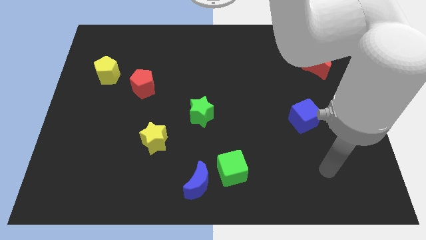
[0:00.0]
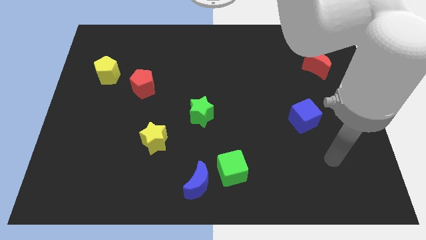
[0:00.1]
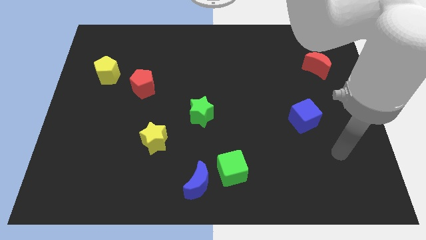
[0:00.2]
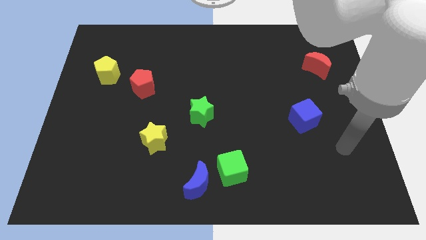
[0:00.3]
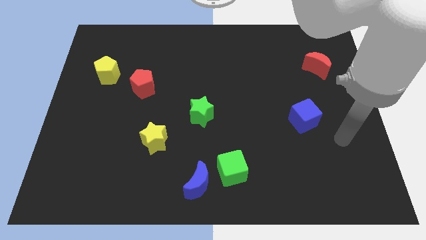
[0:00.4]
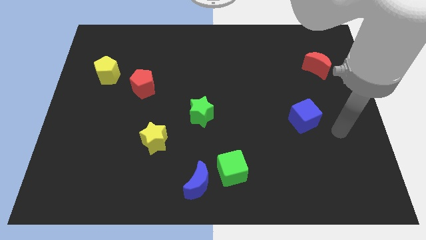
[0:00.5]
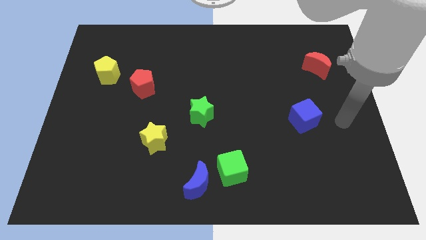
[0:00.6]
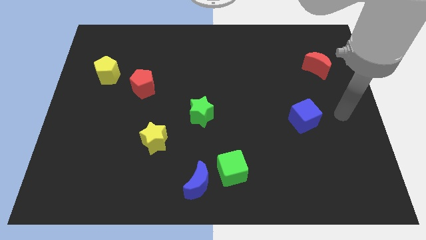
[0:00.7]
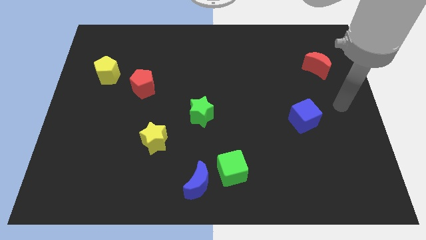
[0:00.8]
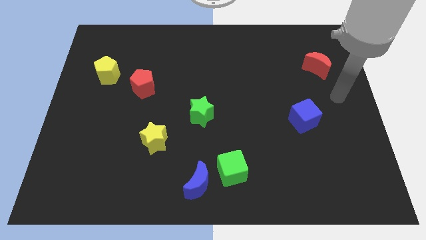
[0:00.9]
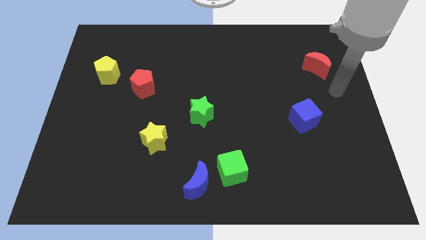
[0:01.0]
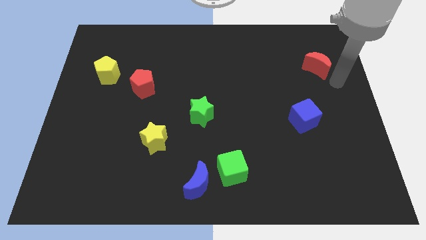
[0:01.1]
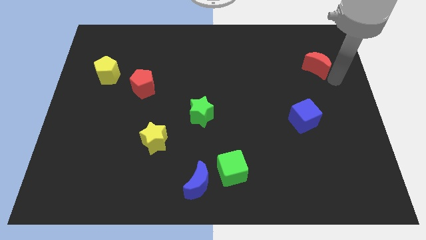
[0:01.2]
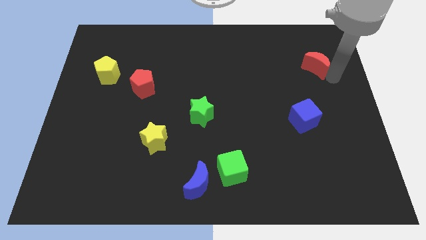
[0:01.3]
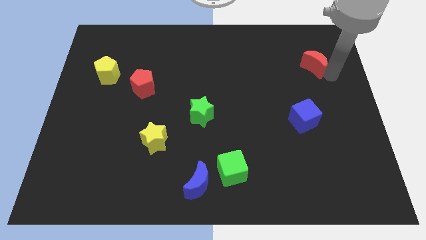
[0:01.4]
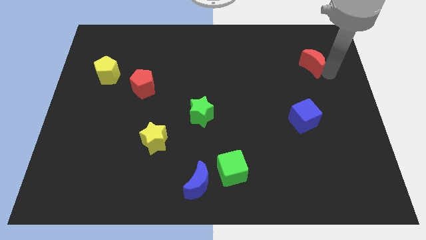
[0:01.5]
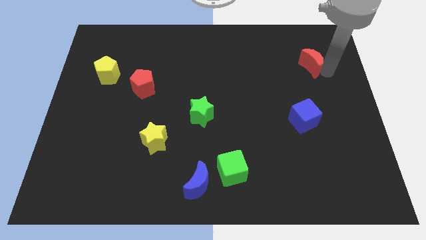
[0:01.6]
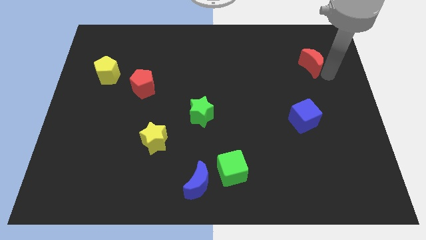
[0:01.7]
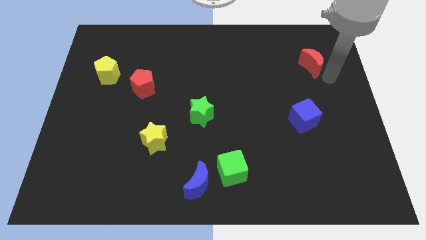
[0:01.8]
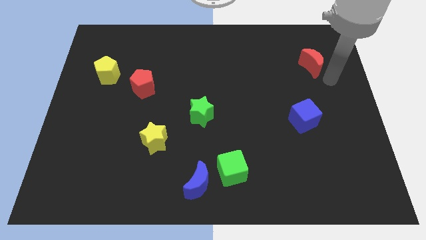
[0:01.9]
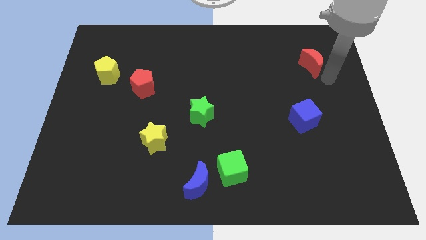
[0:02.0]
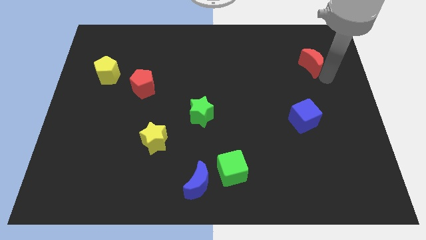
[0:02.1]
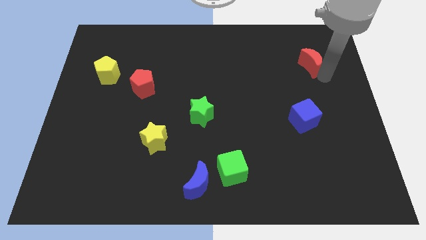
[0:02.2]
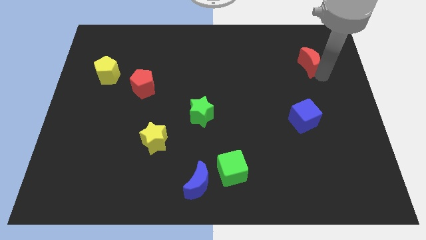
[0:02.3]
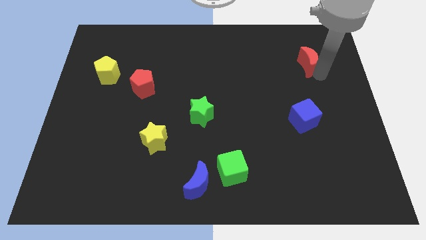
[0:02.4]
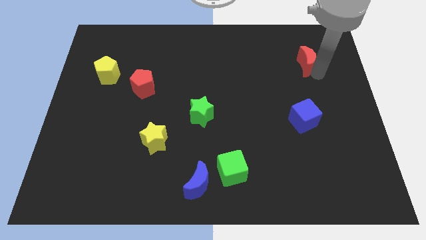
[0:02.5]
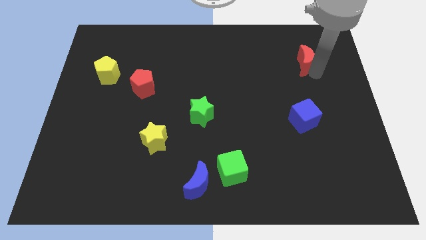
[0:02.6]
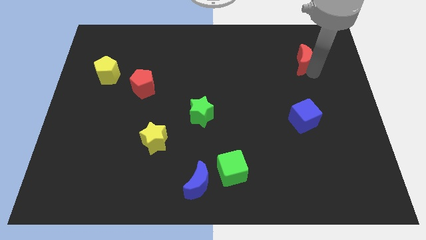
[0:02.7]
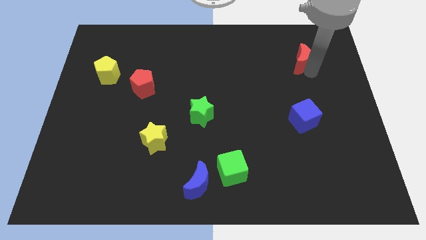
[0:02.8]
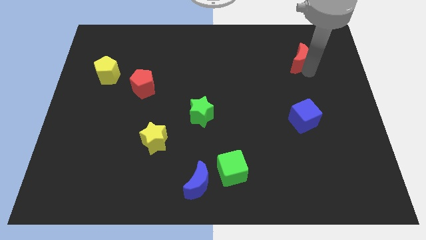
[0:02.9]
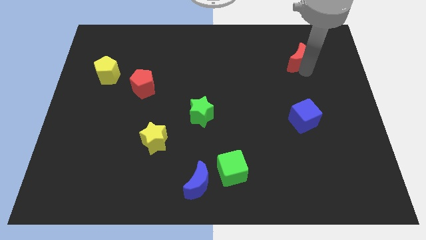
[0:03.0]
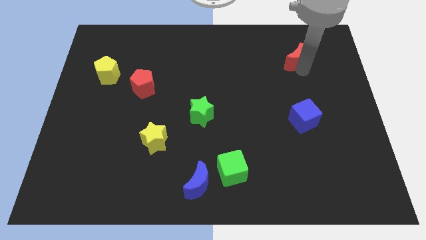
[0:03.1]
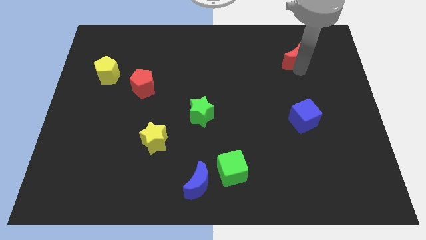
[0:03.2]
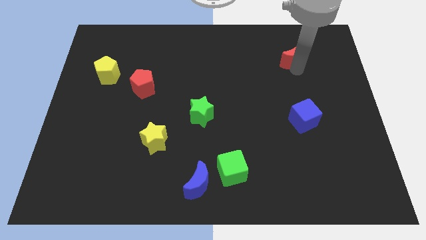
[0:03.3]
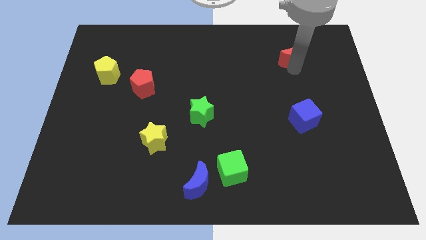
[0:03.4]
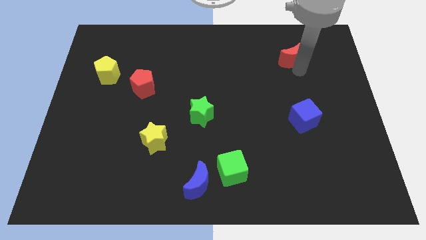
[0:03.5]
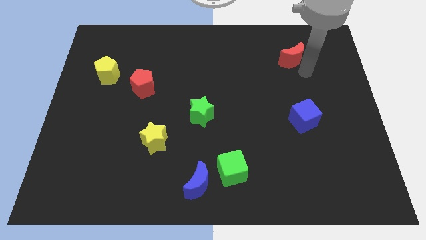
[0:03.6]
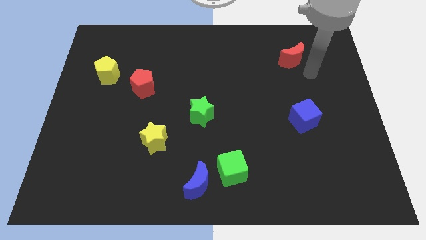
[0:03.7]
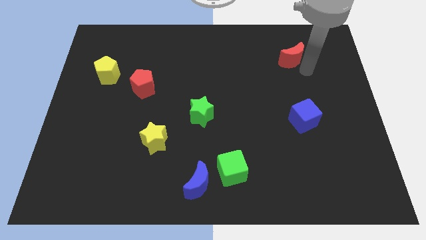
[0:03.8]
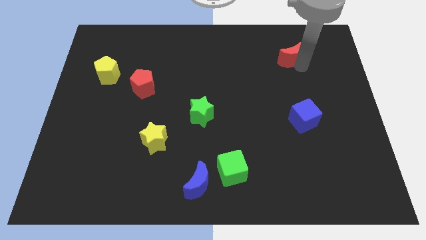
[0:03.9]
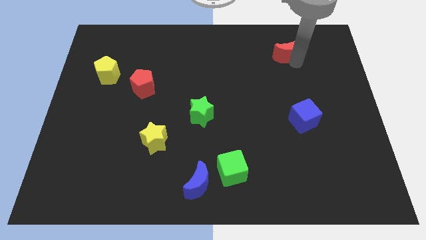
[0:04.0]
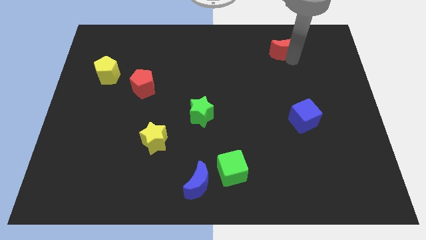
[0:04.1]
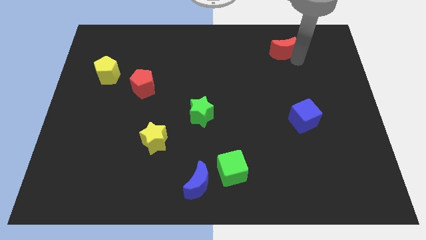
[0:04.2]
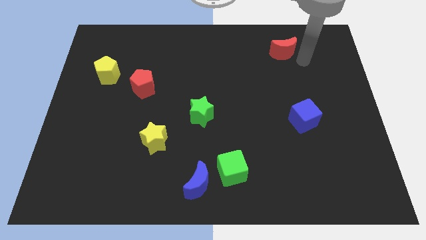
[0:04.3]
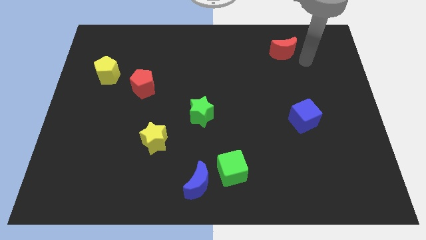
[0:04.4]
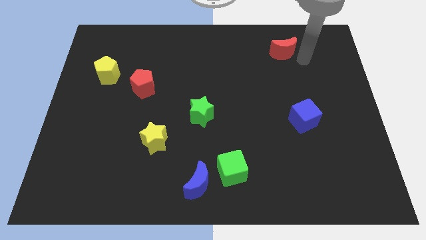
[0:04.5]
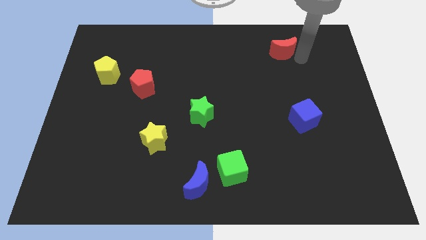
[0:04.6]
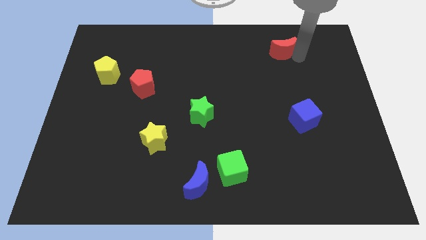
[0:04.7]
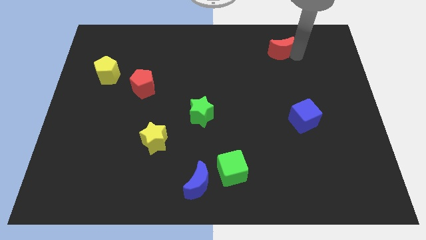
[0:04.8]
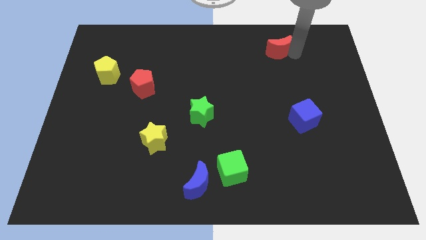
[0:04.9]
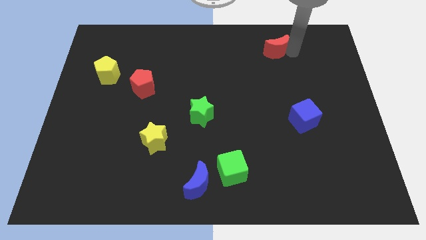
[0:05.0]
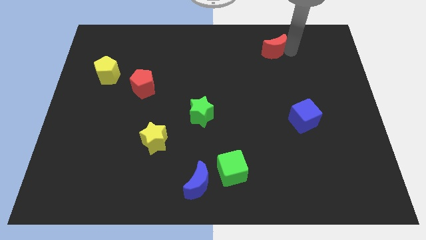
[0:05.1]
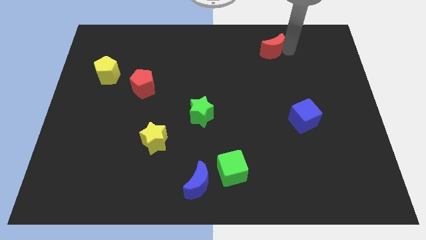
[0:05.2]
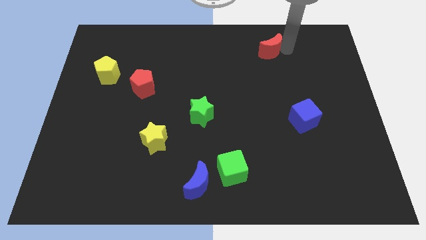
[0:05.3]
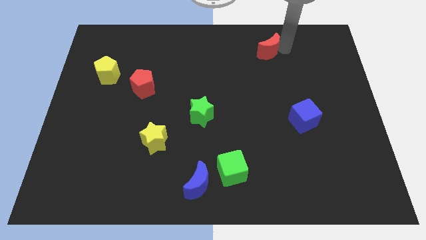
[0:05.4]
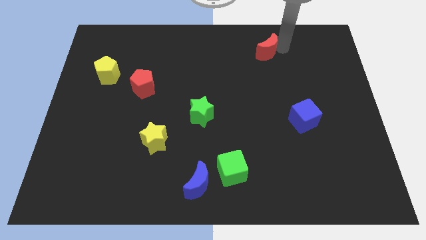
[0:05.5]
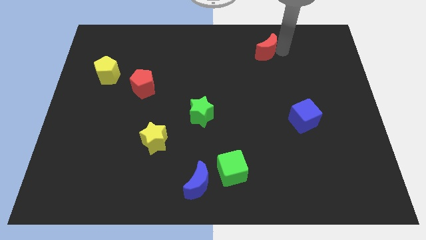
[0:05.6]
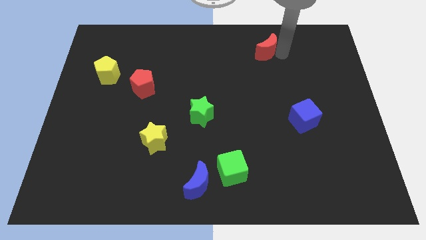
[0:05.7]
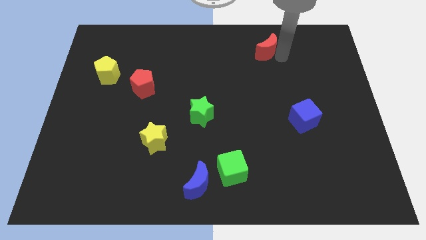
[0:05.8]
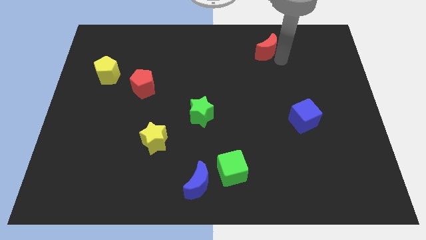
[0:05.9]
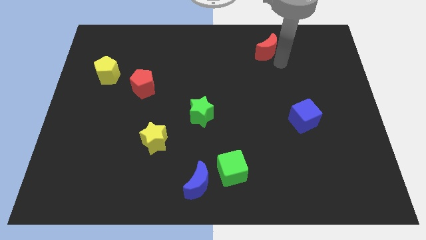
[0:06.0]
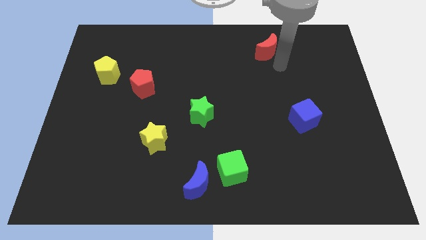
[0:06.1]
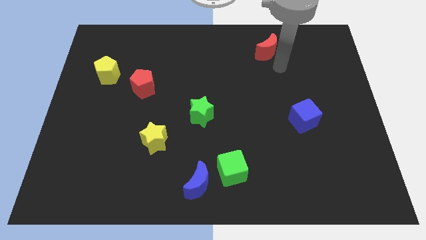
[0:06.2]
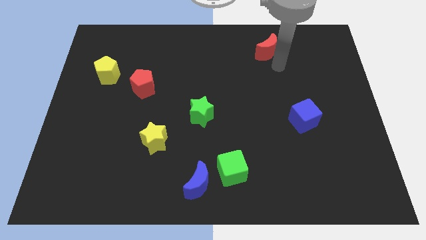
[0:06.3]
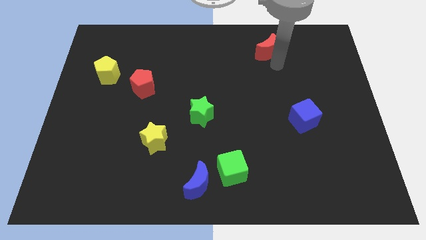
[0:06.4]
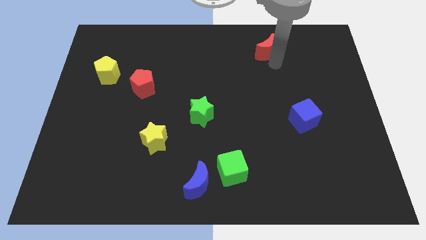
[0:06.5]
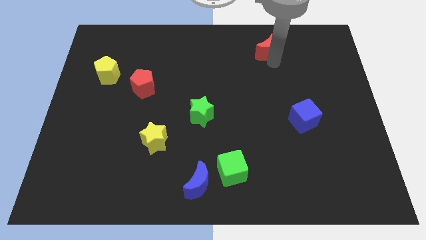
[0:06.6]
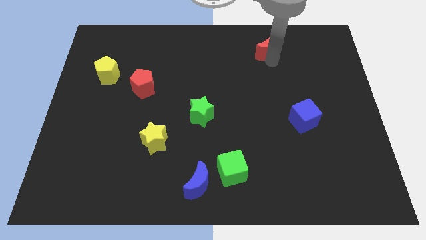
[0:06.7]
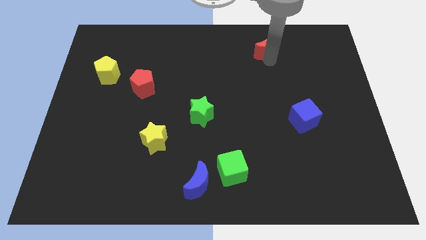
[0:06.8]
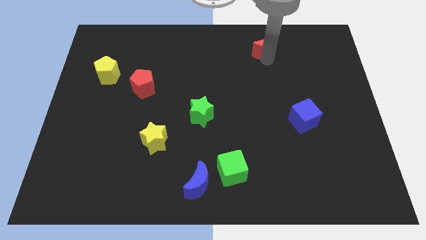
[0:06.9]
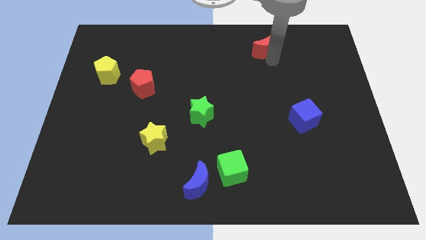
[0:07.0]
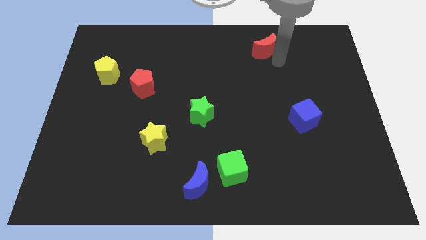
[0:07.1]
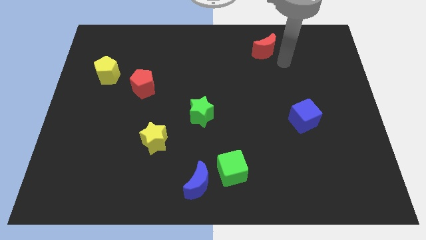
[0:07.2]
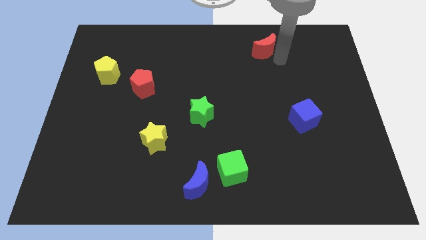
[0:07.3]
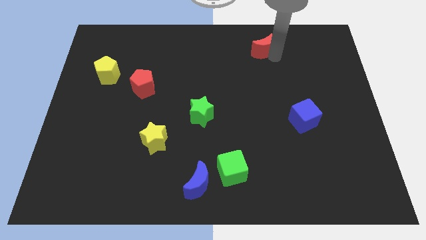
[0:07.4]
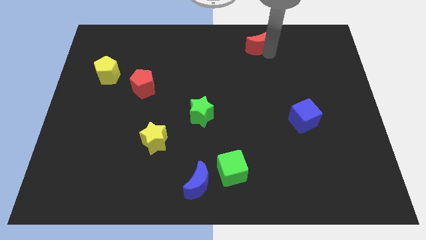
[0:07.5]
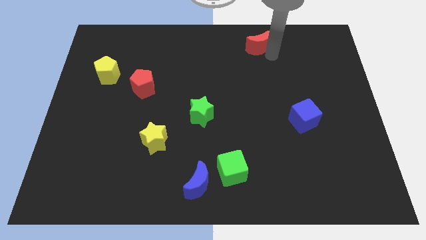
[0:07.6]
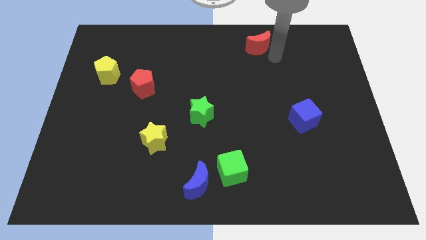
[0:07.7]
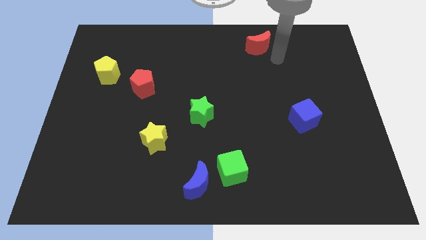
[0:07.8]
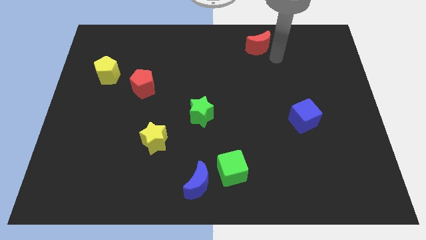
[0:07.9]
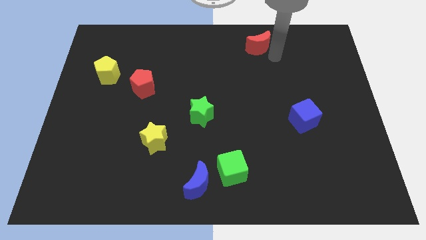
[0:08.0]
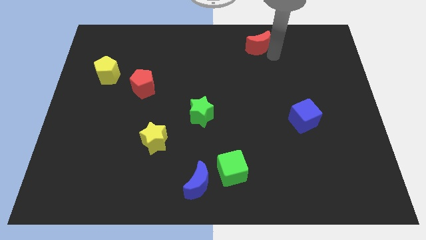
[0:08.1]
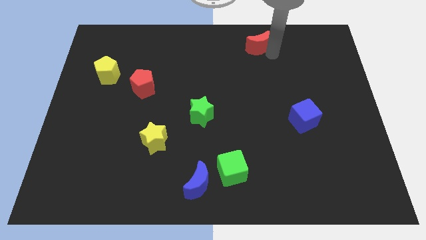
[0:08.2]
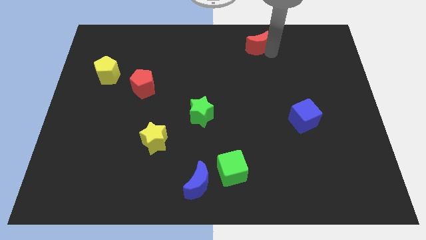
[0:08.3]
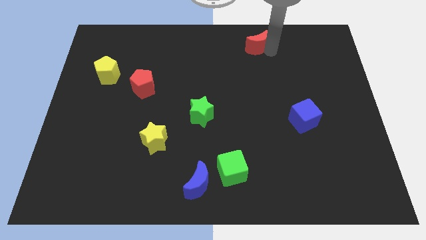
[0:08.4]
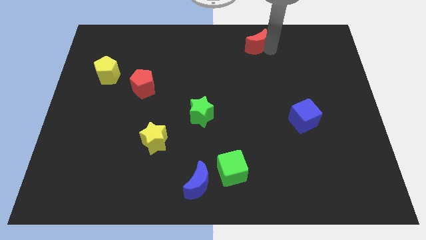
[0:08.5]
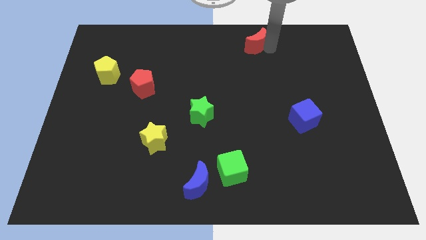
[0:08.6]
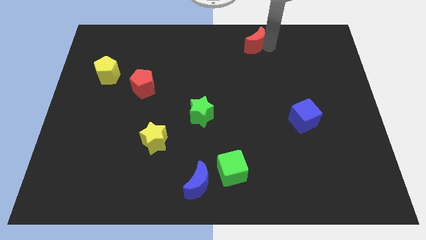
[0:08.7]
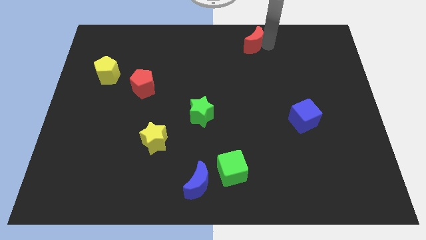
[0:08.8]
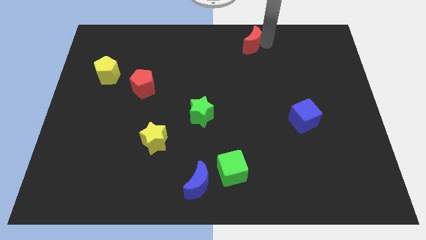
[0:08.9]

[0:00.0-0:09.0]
push the red moon to the towards your base
